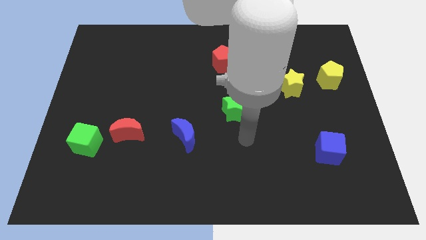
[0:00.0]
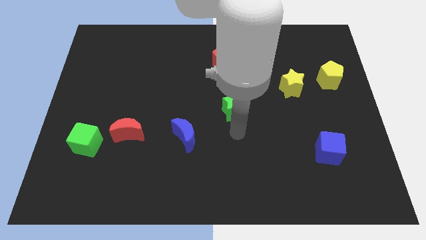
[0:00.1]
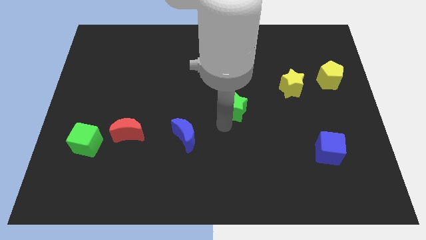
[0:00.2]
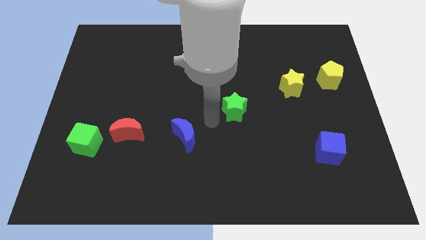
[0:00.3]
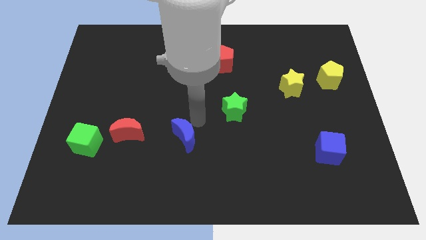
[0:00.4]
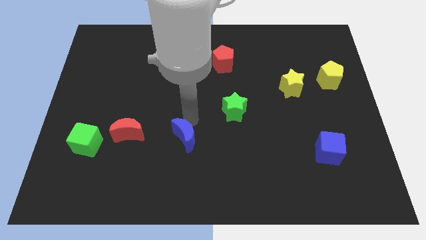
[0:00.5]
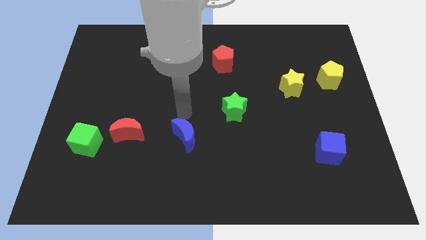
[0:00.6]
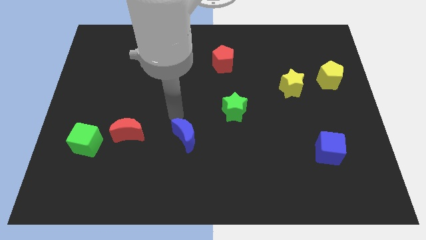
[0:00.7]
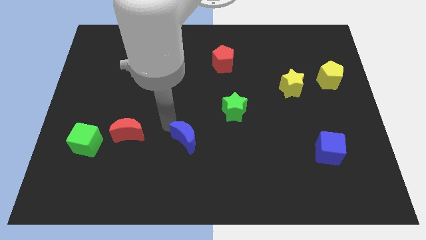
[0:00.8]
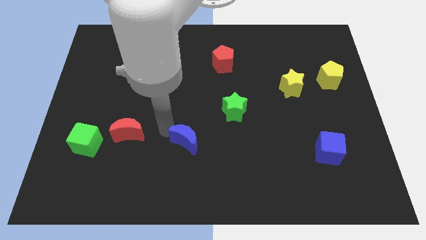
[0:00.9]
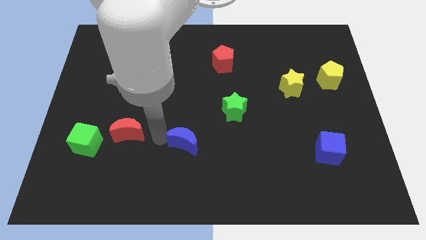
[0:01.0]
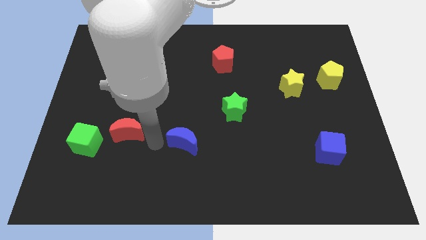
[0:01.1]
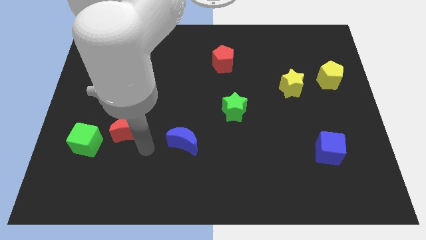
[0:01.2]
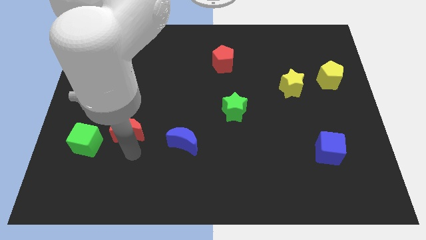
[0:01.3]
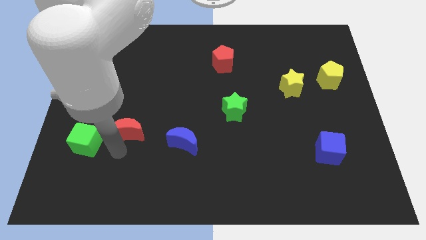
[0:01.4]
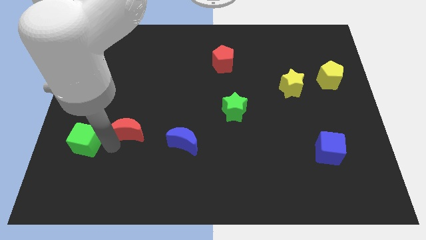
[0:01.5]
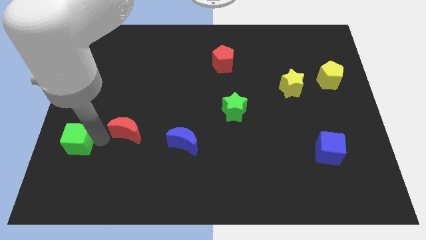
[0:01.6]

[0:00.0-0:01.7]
move the red moon away from the green cube

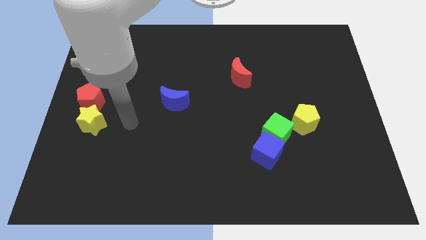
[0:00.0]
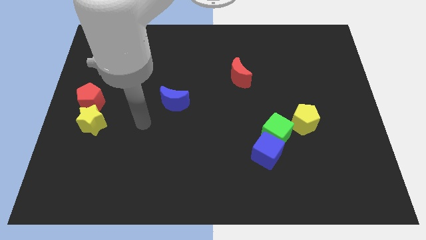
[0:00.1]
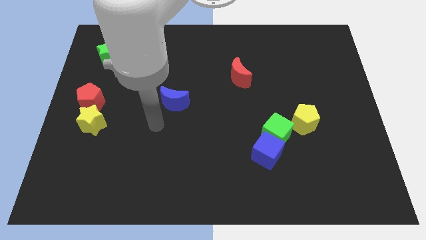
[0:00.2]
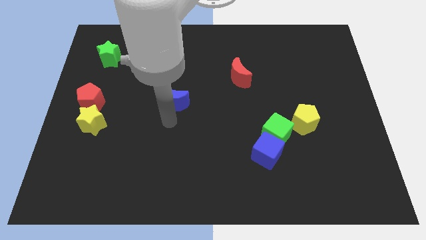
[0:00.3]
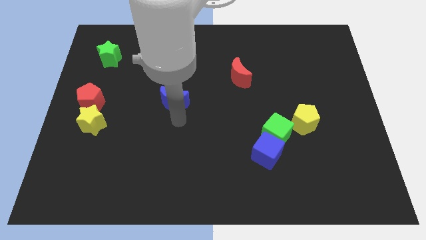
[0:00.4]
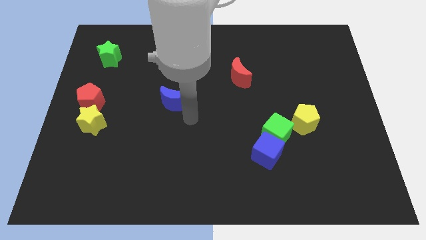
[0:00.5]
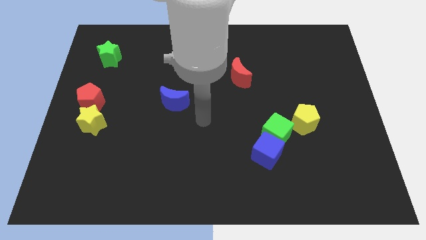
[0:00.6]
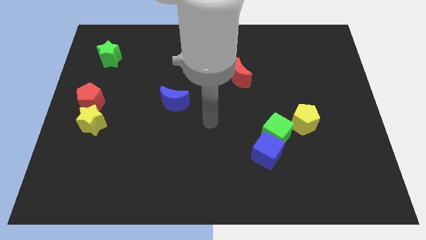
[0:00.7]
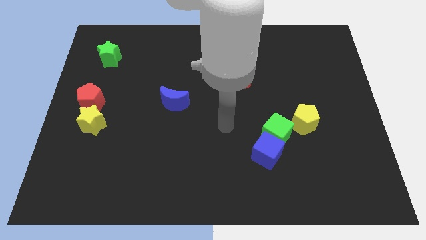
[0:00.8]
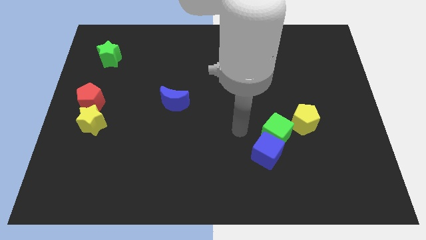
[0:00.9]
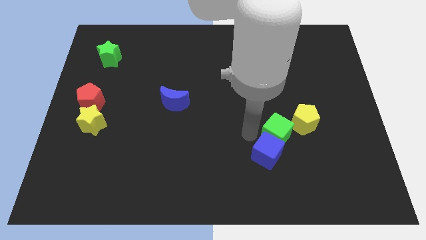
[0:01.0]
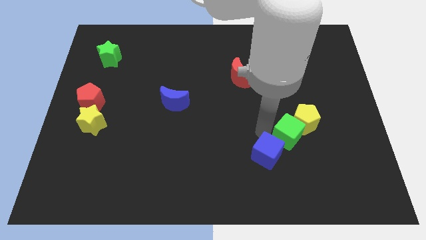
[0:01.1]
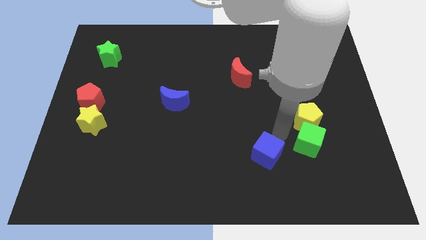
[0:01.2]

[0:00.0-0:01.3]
move the blue cube away from the green cube

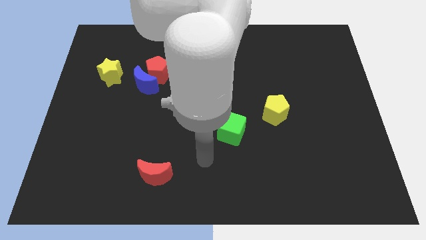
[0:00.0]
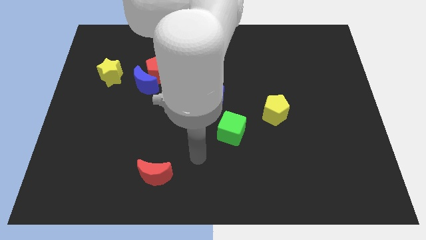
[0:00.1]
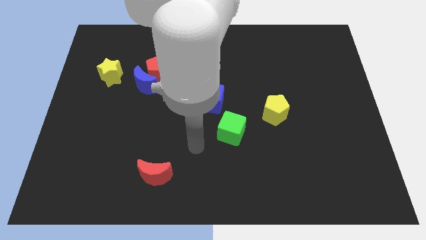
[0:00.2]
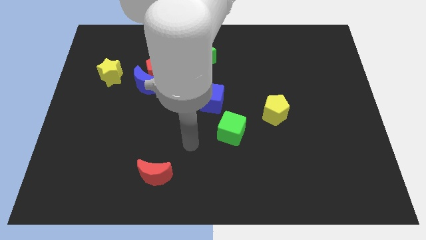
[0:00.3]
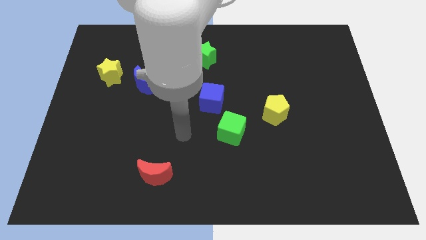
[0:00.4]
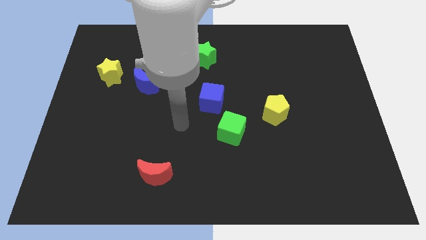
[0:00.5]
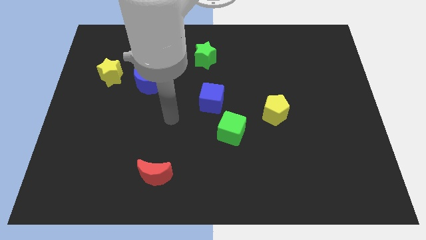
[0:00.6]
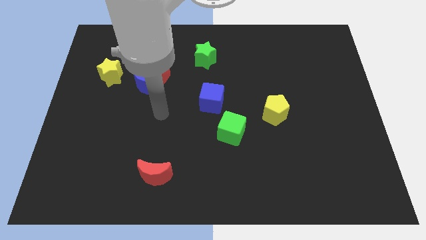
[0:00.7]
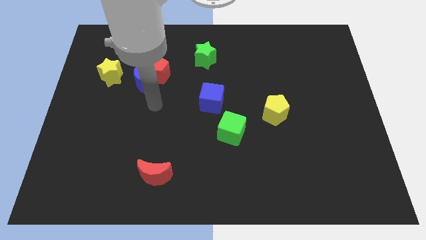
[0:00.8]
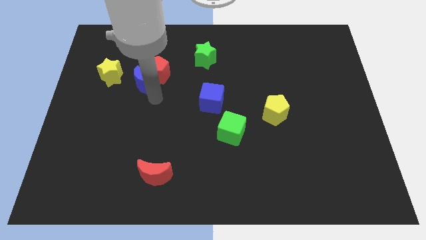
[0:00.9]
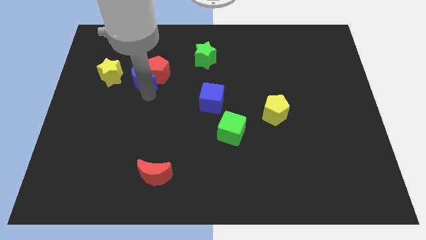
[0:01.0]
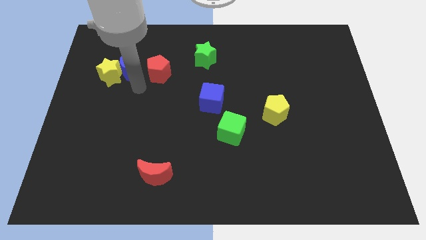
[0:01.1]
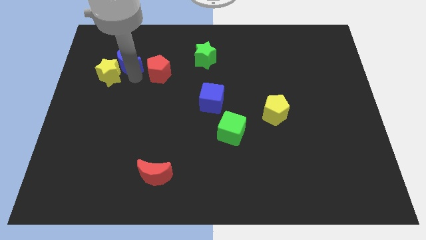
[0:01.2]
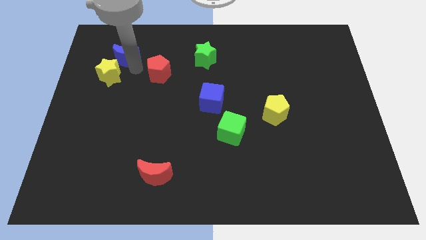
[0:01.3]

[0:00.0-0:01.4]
separate the red pentagon from the blue moon

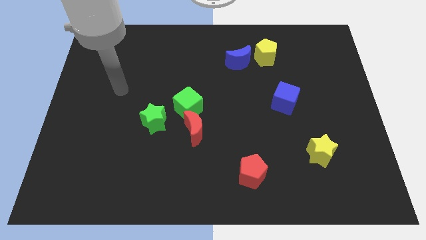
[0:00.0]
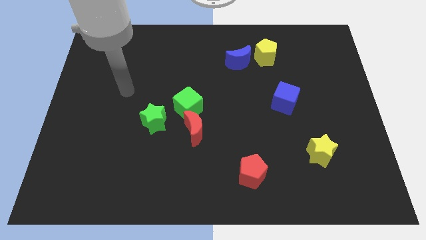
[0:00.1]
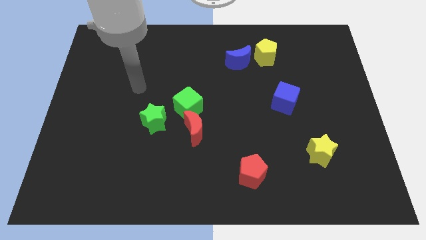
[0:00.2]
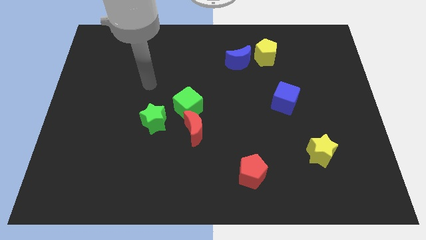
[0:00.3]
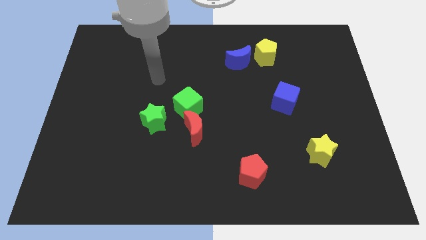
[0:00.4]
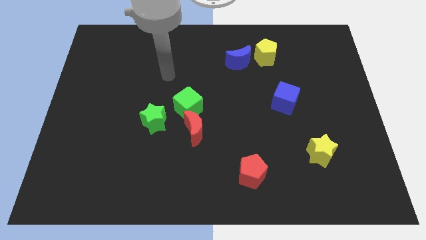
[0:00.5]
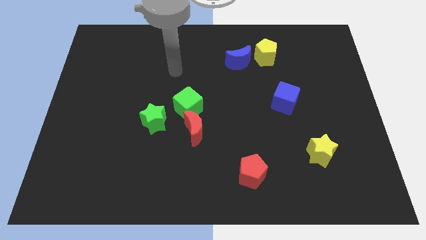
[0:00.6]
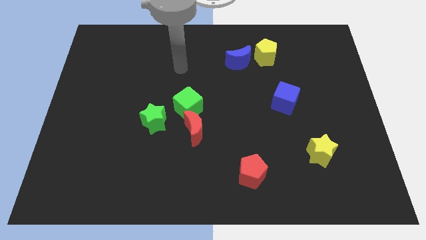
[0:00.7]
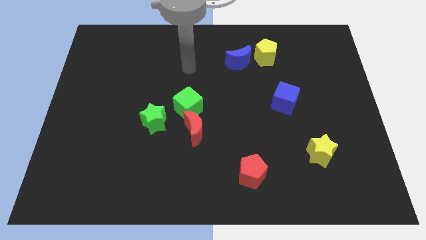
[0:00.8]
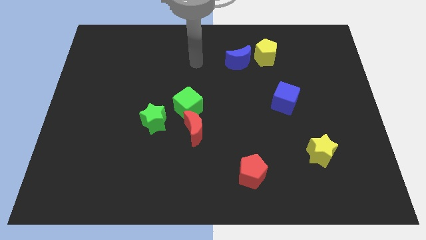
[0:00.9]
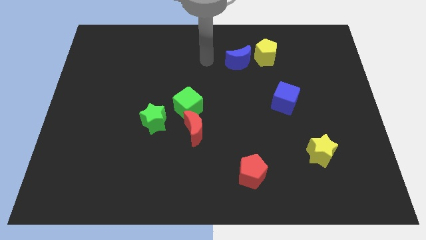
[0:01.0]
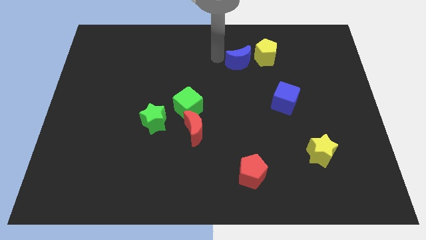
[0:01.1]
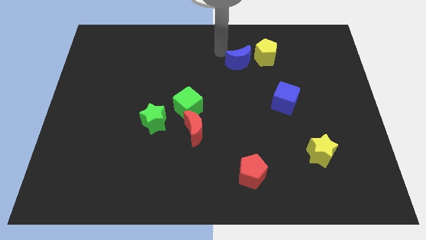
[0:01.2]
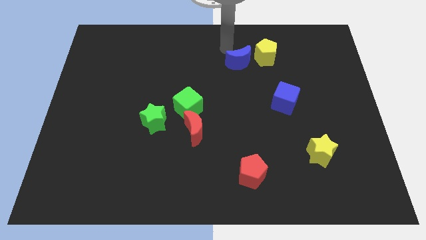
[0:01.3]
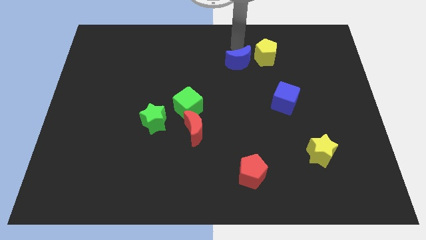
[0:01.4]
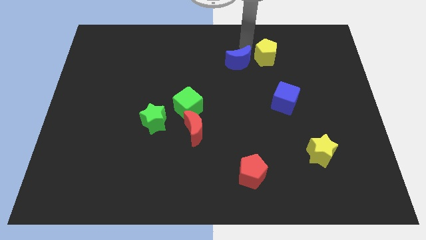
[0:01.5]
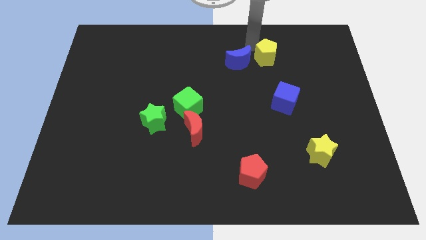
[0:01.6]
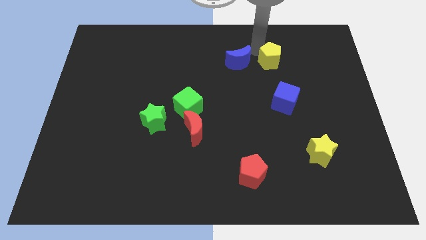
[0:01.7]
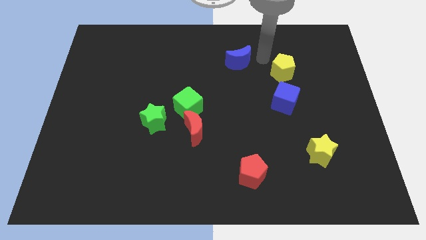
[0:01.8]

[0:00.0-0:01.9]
separate the blue moon from the yellow pentagon

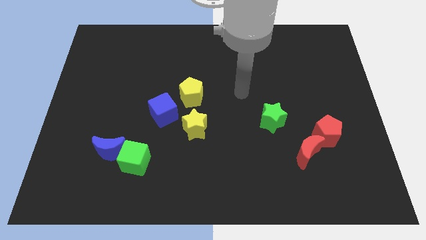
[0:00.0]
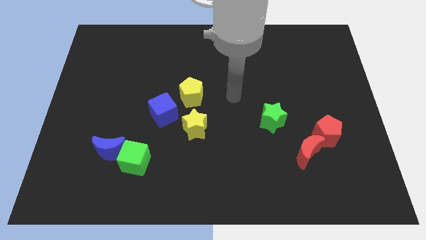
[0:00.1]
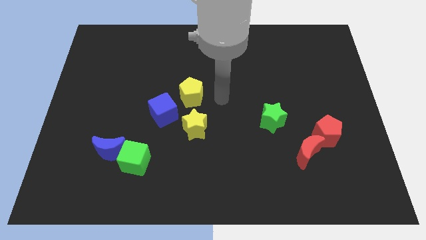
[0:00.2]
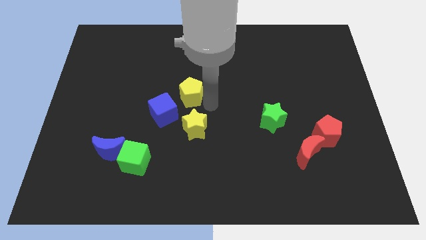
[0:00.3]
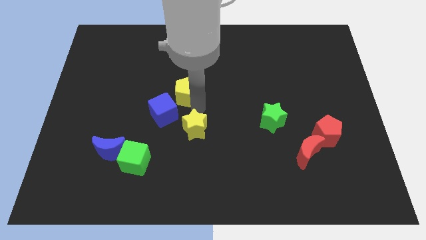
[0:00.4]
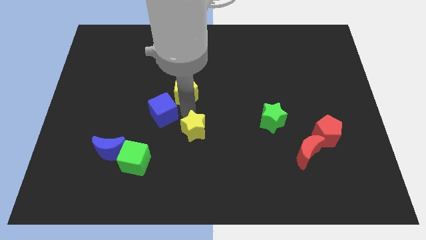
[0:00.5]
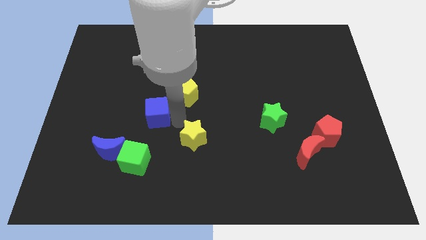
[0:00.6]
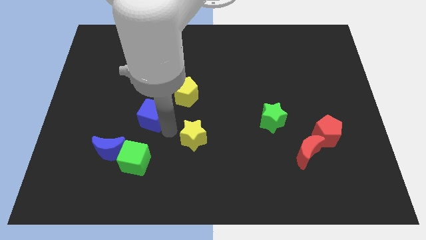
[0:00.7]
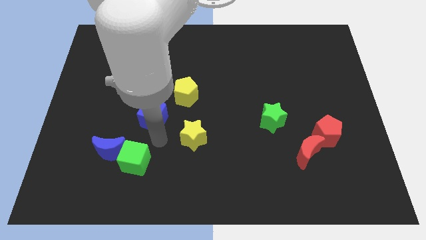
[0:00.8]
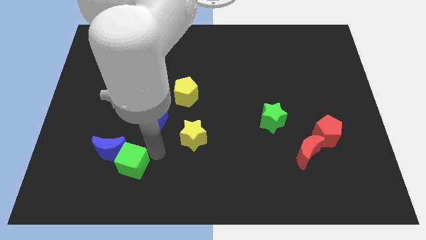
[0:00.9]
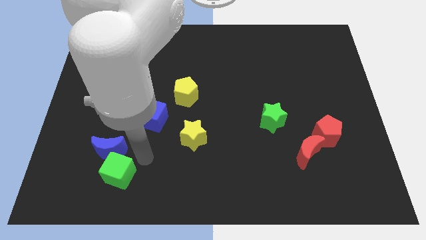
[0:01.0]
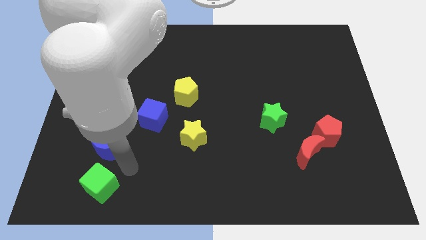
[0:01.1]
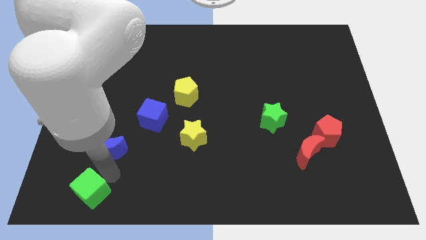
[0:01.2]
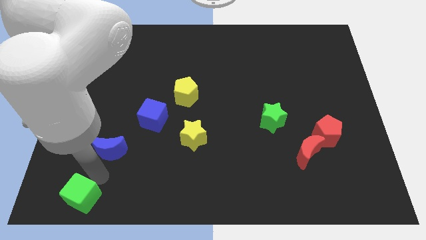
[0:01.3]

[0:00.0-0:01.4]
separate the blue moon from the green cube

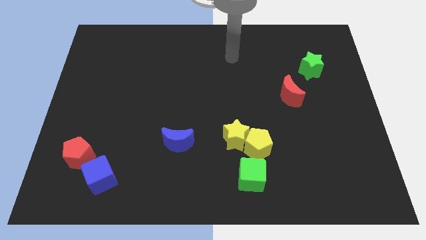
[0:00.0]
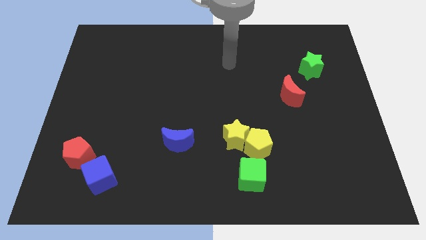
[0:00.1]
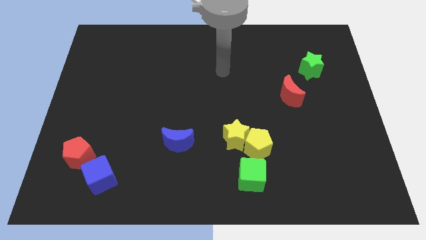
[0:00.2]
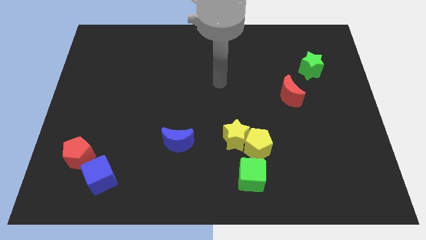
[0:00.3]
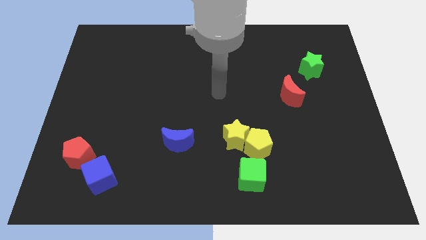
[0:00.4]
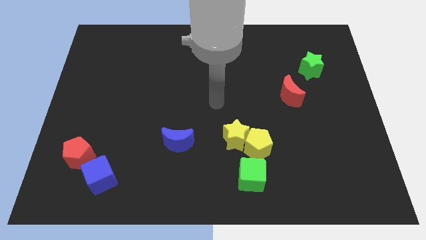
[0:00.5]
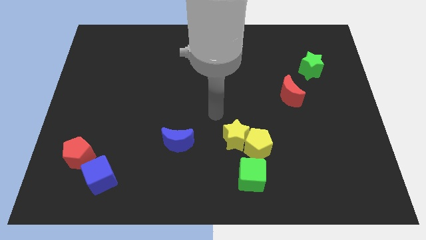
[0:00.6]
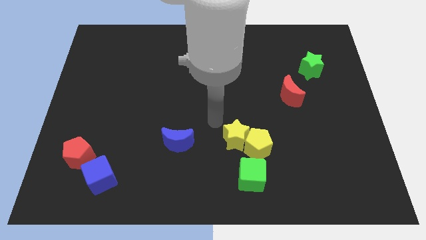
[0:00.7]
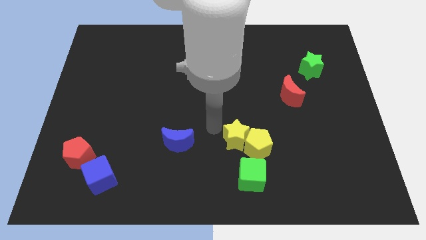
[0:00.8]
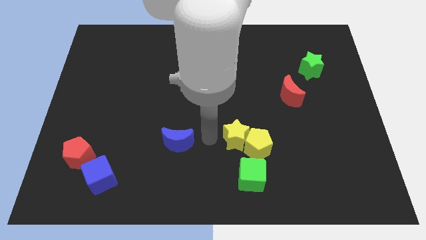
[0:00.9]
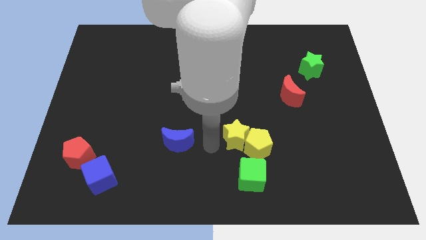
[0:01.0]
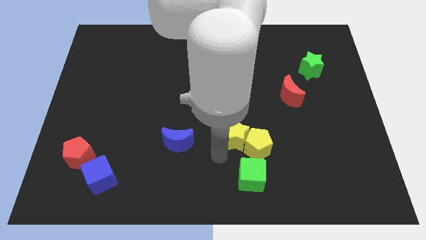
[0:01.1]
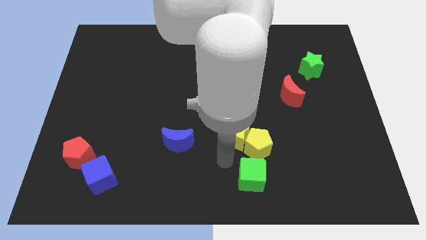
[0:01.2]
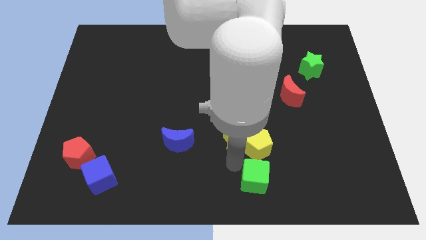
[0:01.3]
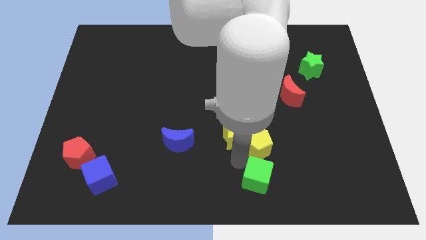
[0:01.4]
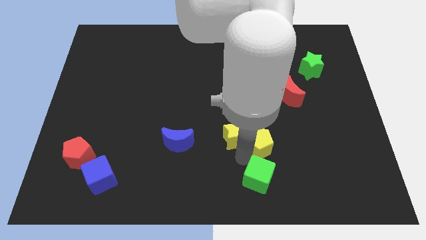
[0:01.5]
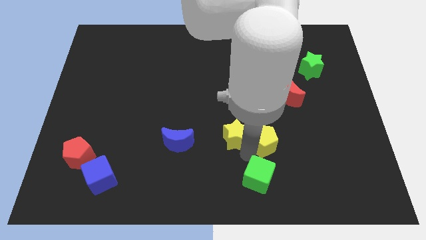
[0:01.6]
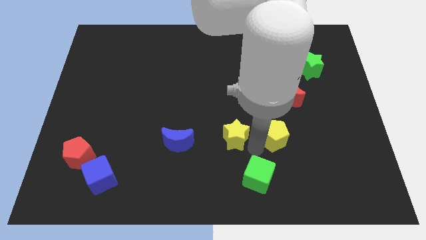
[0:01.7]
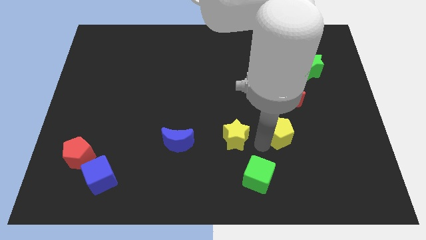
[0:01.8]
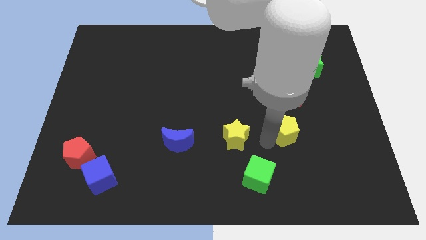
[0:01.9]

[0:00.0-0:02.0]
pull the yellow pentagon apart from the yellow star and green cube
